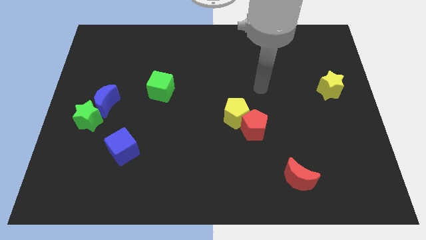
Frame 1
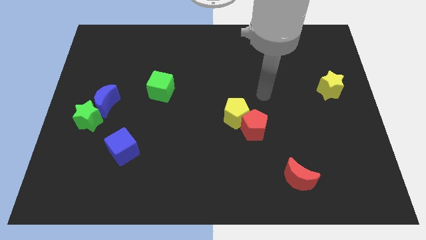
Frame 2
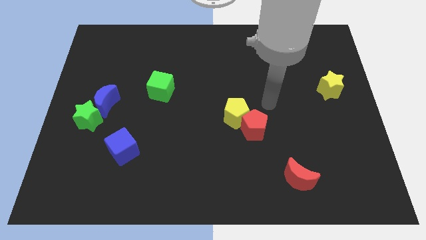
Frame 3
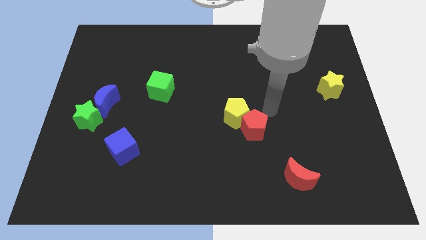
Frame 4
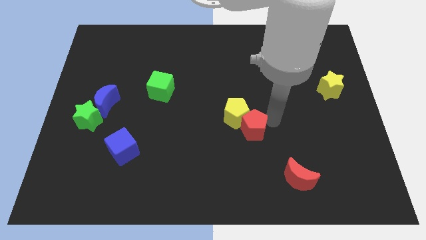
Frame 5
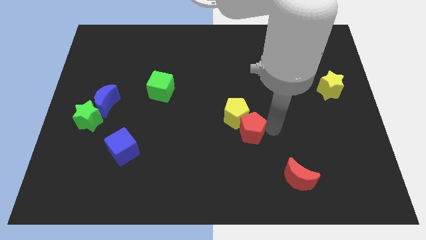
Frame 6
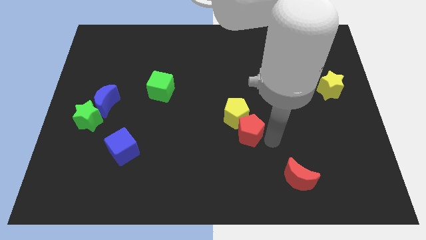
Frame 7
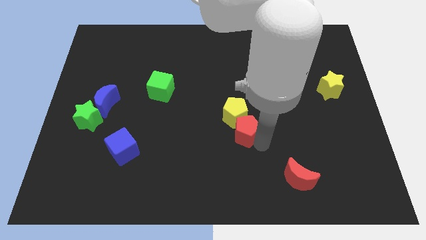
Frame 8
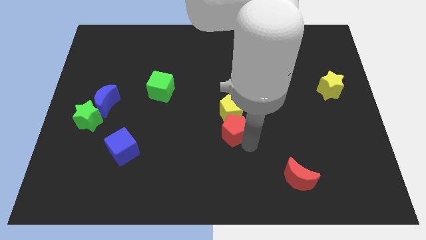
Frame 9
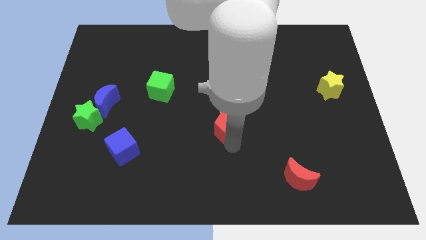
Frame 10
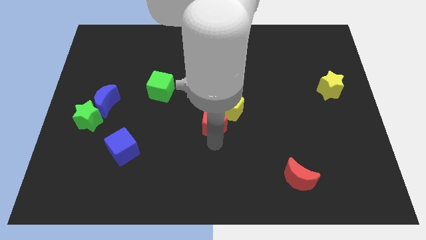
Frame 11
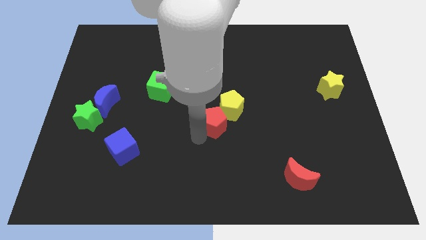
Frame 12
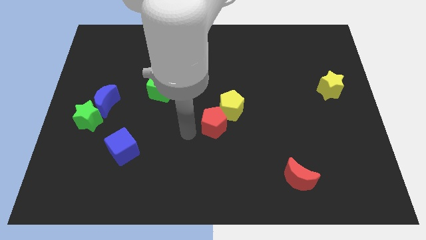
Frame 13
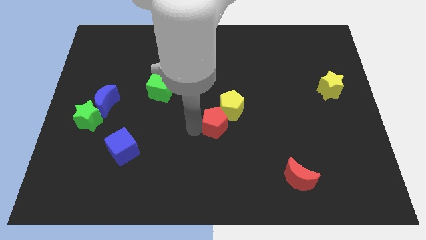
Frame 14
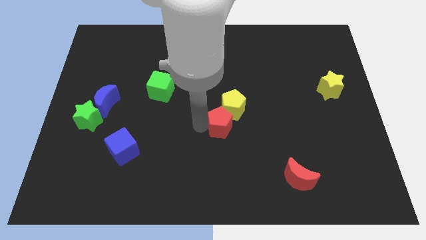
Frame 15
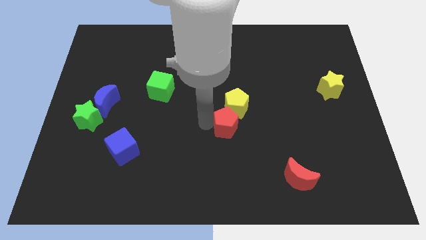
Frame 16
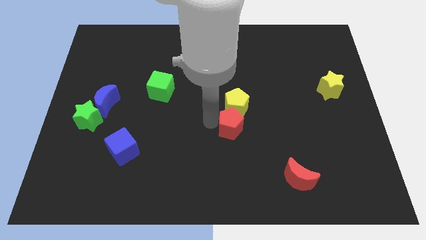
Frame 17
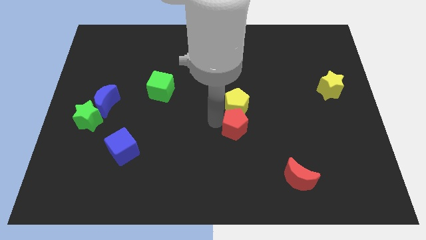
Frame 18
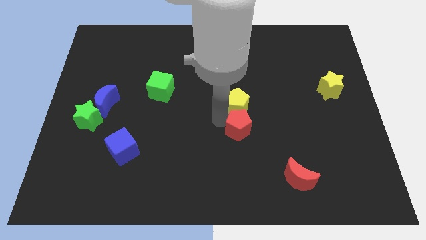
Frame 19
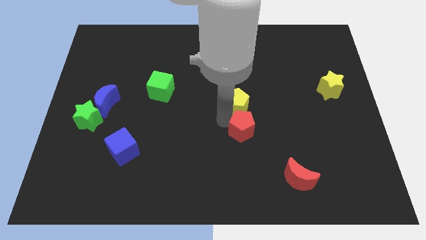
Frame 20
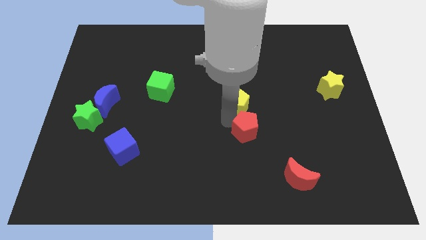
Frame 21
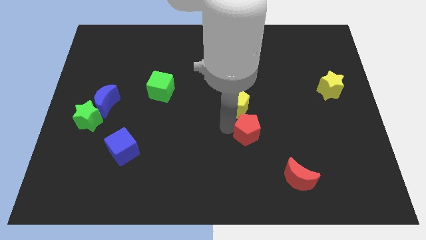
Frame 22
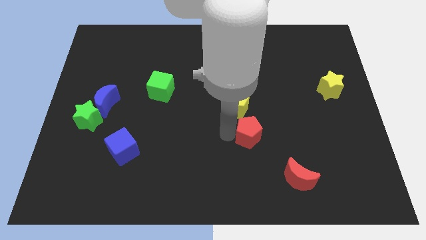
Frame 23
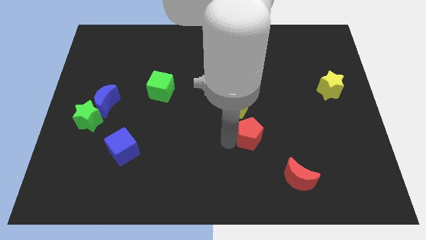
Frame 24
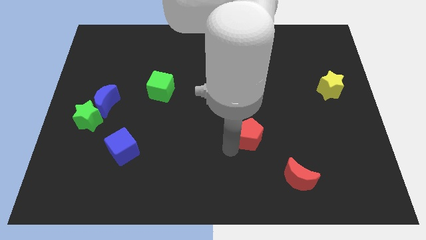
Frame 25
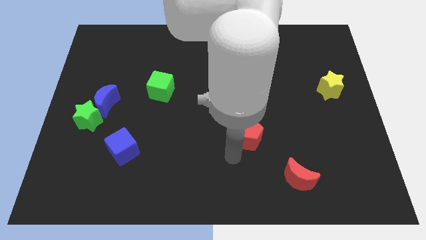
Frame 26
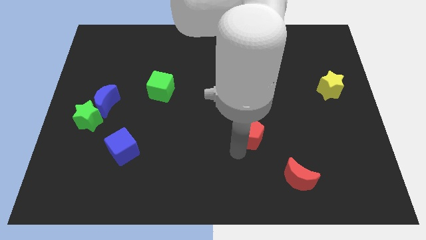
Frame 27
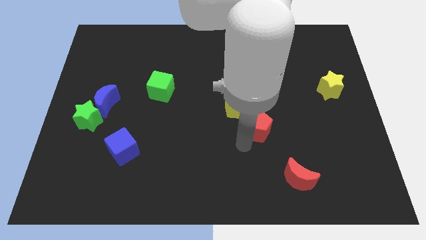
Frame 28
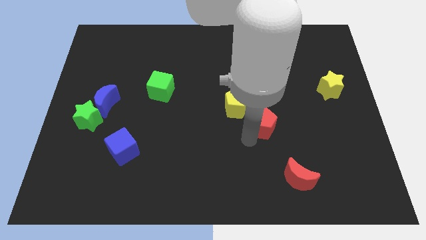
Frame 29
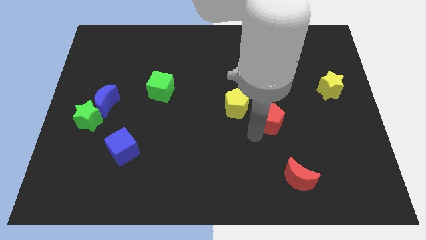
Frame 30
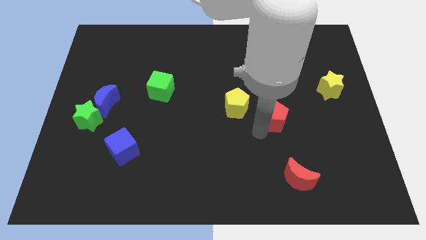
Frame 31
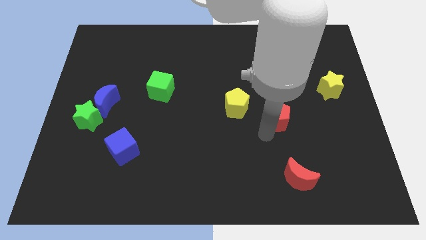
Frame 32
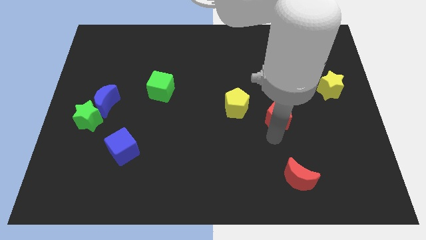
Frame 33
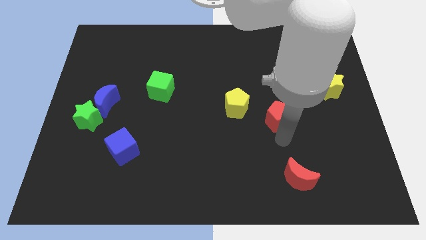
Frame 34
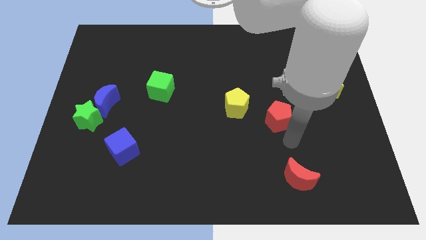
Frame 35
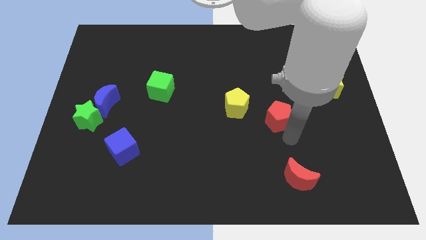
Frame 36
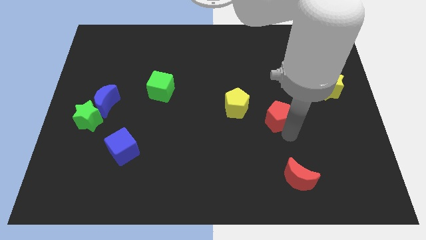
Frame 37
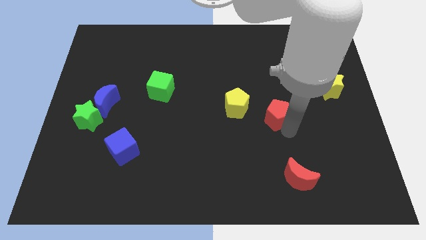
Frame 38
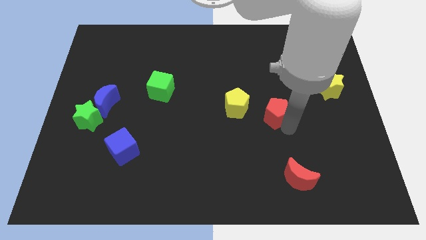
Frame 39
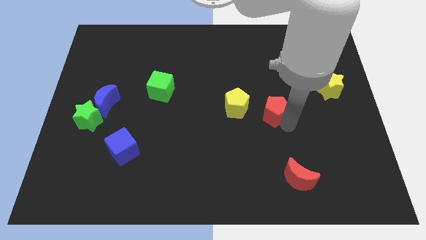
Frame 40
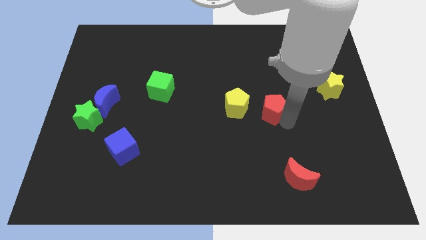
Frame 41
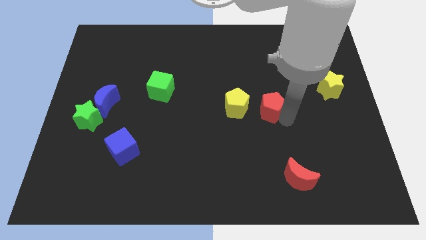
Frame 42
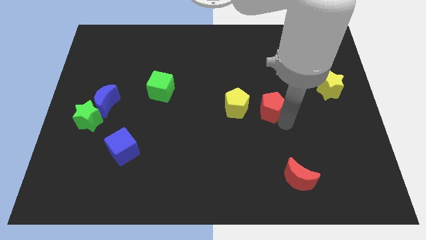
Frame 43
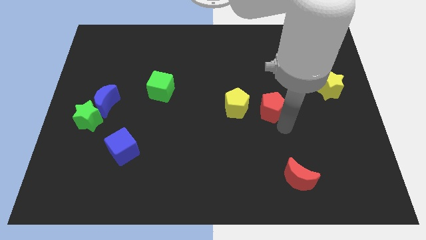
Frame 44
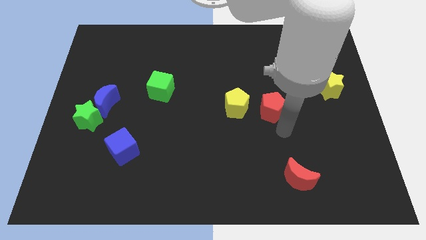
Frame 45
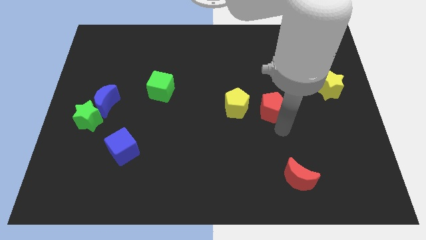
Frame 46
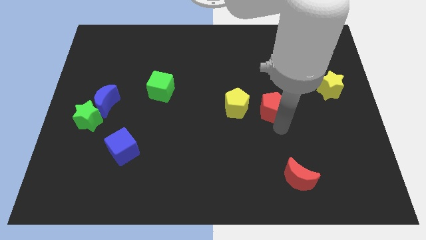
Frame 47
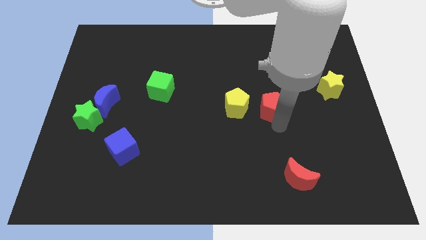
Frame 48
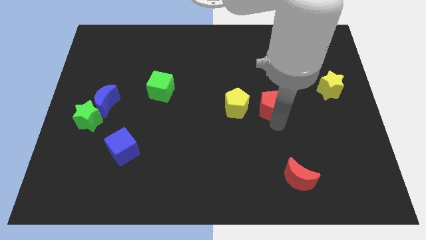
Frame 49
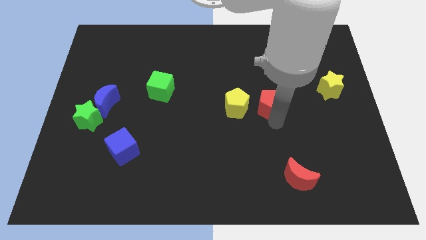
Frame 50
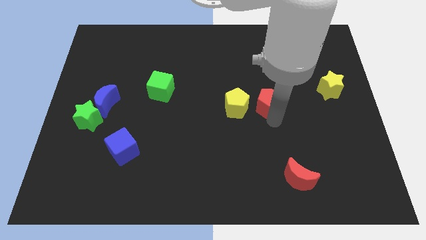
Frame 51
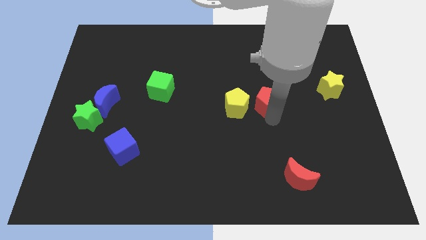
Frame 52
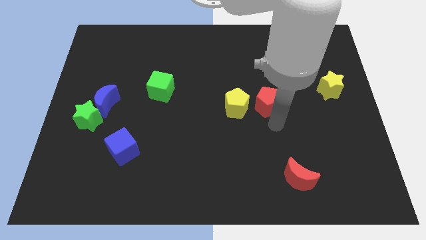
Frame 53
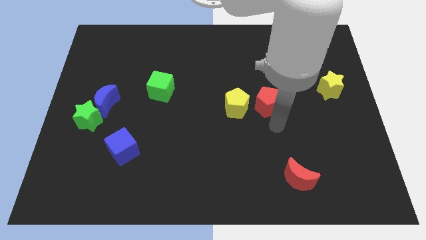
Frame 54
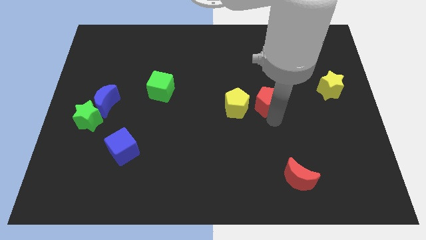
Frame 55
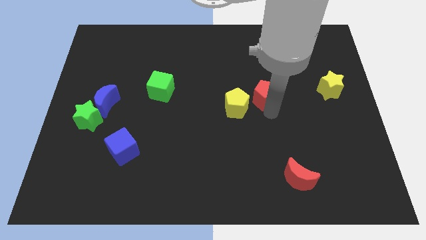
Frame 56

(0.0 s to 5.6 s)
slightly move the red pentagon upwards

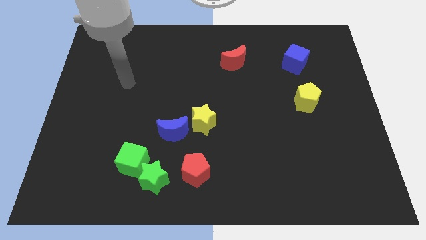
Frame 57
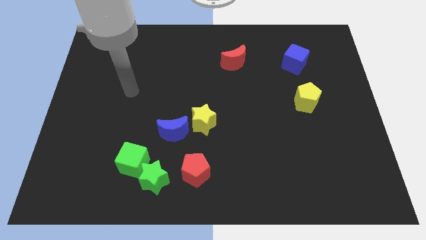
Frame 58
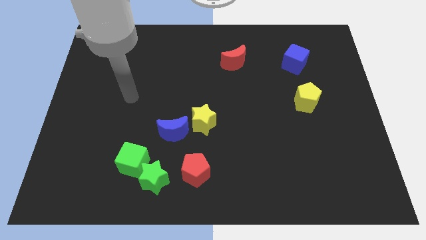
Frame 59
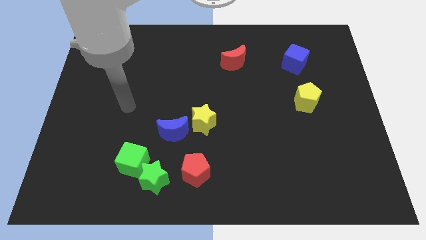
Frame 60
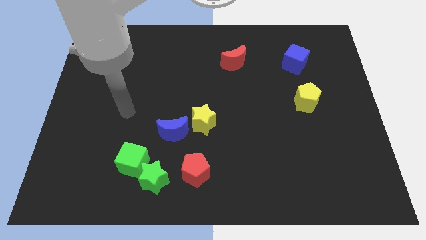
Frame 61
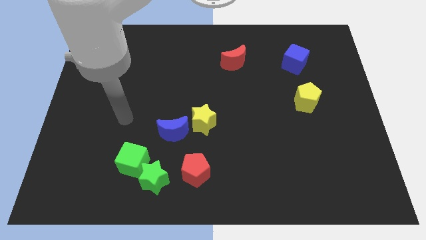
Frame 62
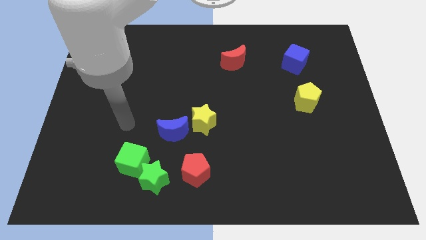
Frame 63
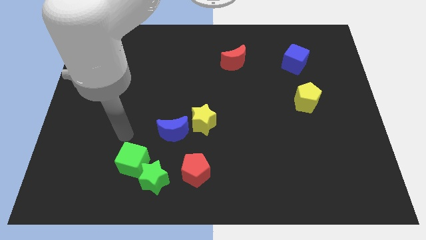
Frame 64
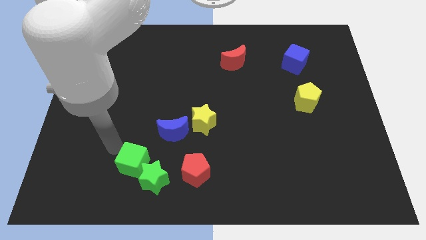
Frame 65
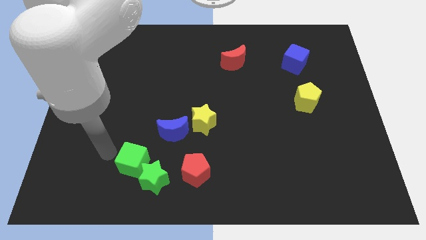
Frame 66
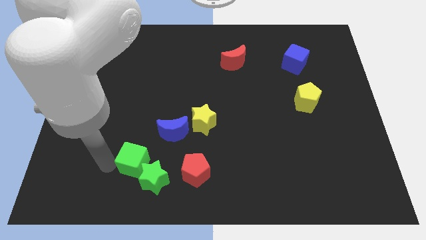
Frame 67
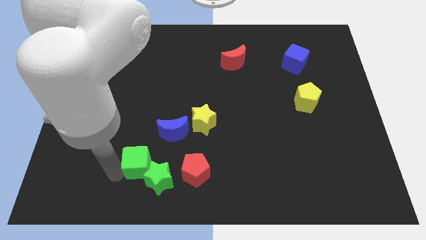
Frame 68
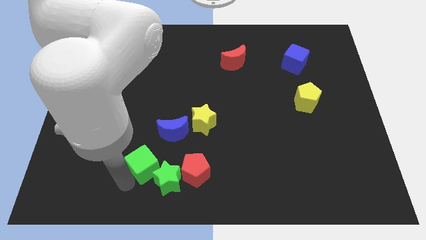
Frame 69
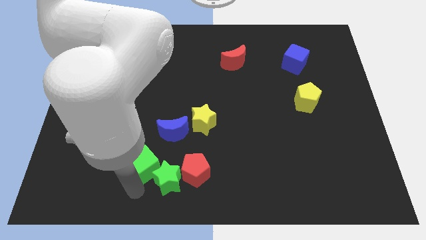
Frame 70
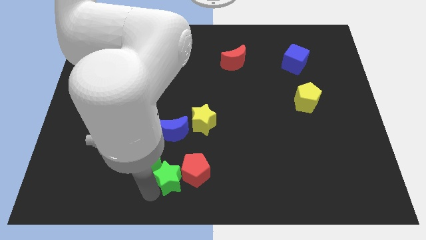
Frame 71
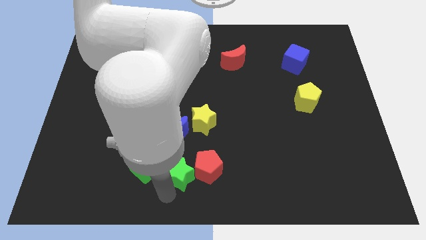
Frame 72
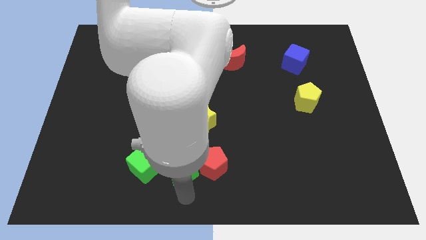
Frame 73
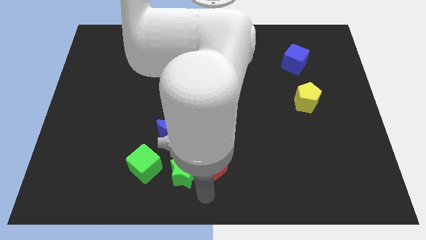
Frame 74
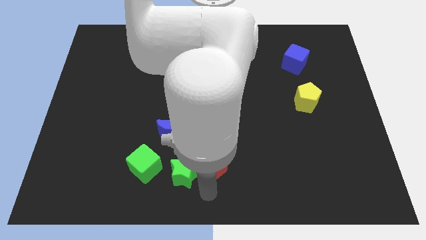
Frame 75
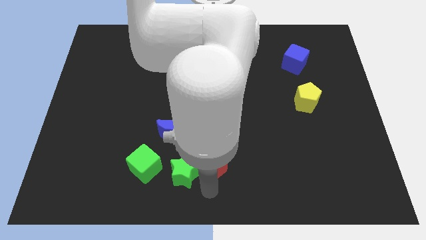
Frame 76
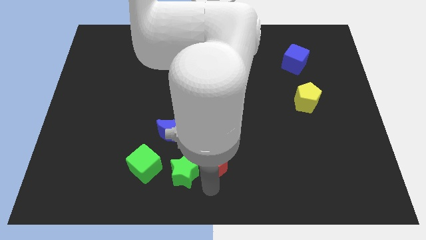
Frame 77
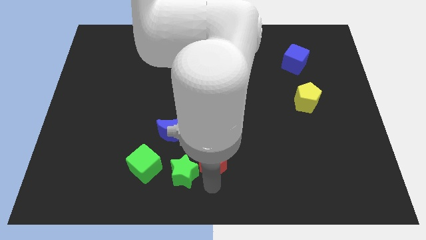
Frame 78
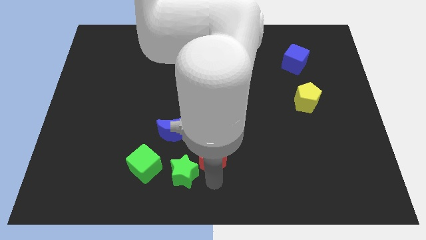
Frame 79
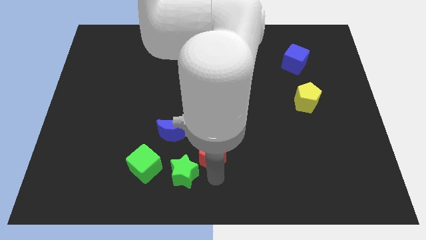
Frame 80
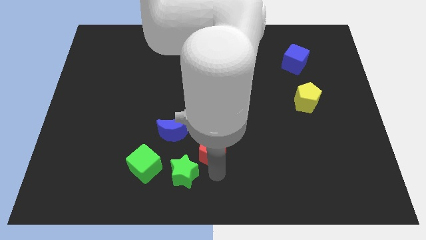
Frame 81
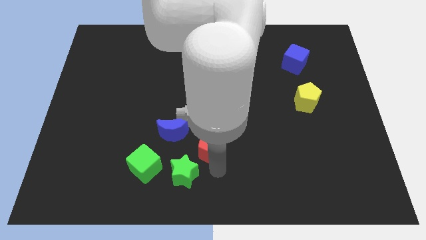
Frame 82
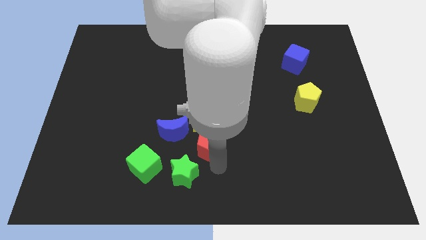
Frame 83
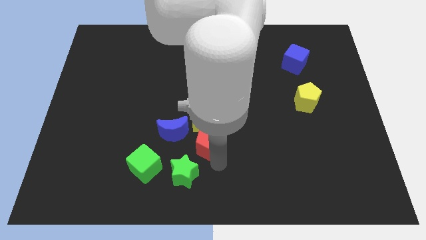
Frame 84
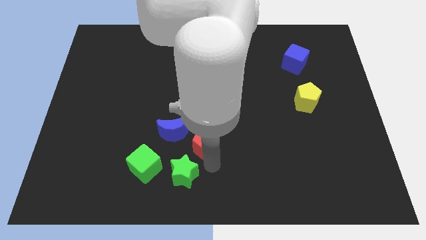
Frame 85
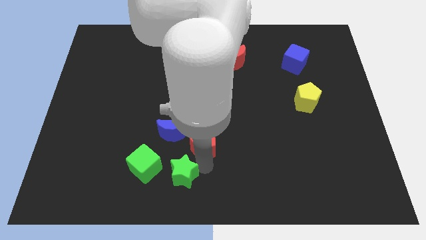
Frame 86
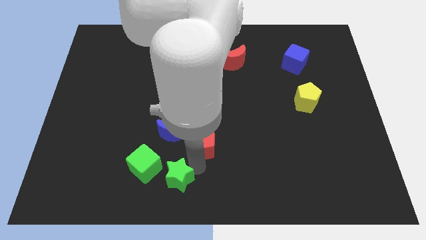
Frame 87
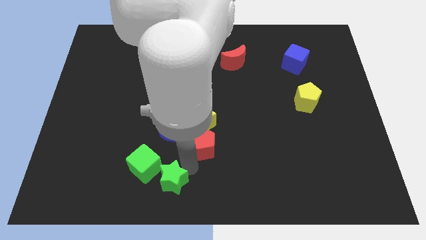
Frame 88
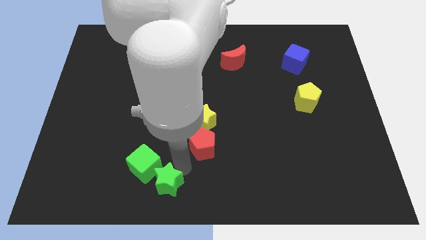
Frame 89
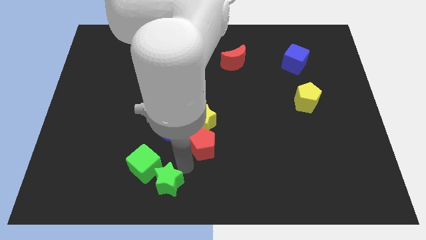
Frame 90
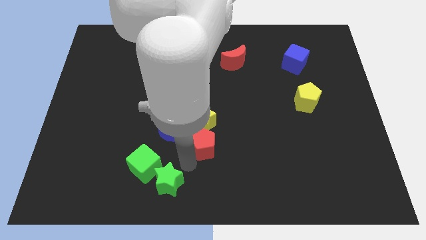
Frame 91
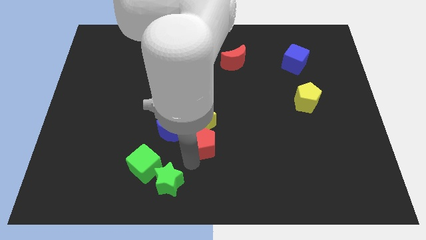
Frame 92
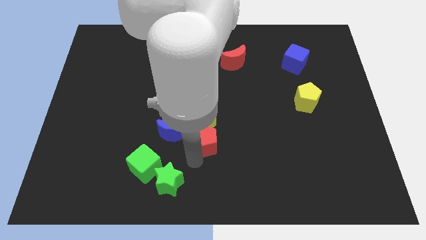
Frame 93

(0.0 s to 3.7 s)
slightly move the red pentagon up
